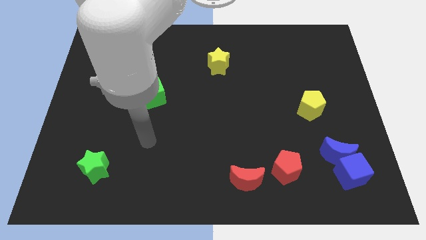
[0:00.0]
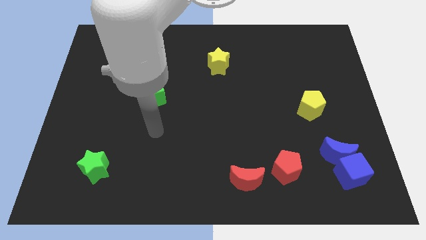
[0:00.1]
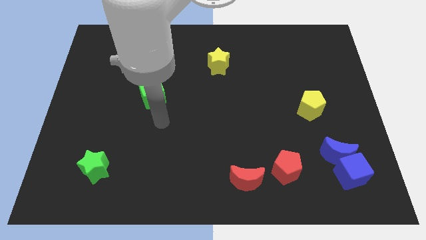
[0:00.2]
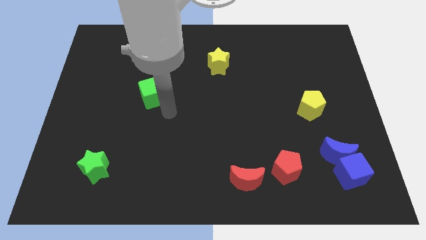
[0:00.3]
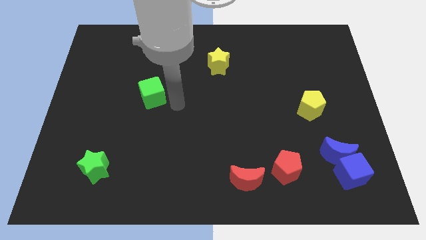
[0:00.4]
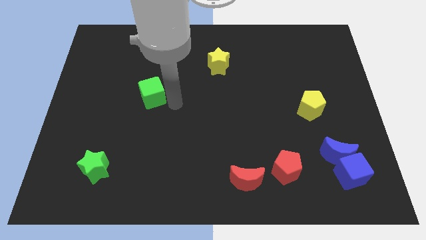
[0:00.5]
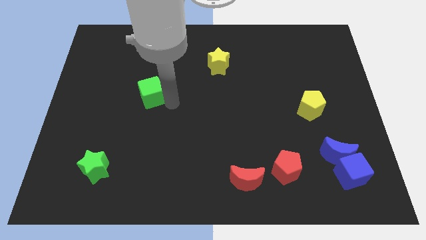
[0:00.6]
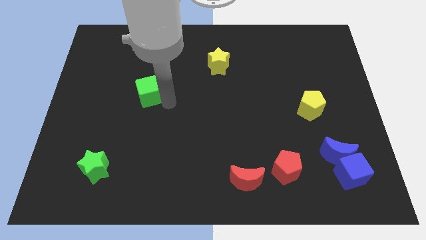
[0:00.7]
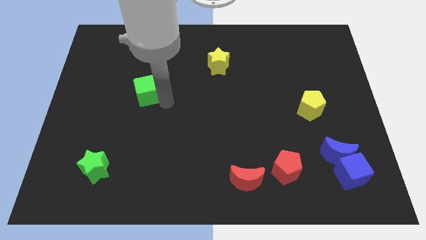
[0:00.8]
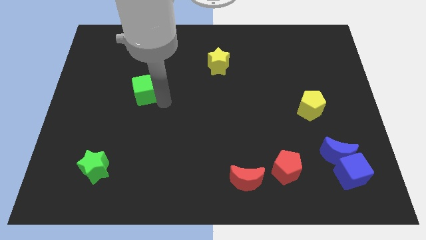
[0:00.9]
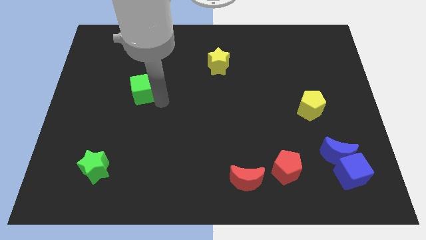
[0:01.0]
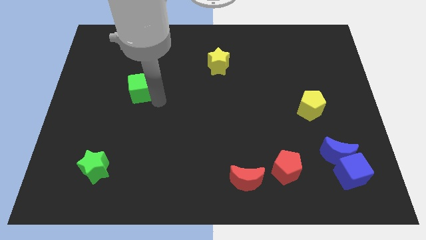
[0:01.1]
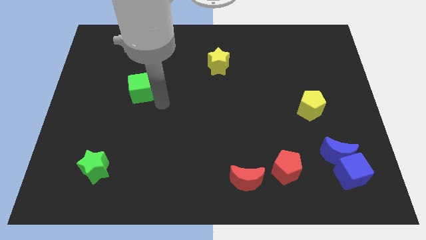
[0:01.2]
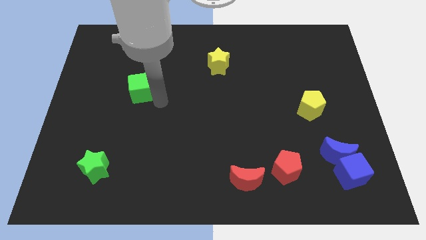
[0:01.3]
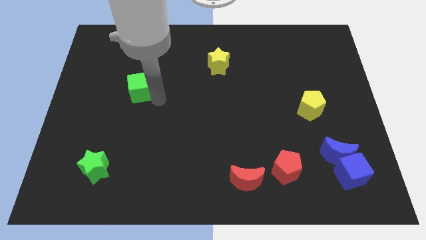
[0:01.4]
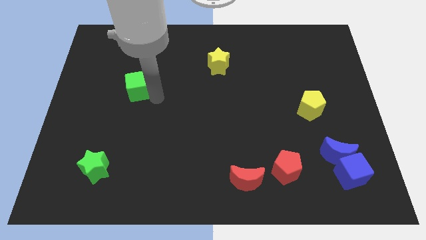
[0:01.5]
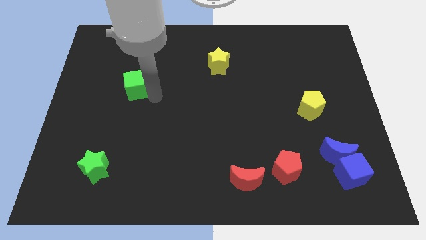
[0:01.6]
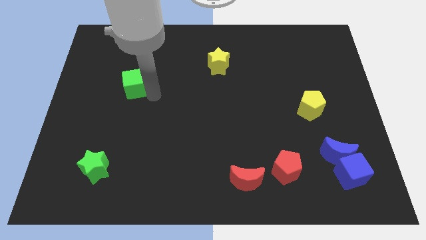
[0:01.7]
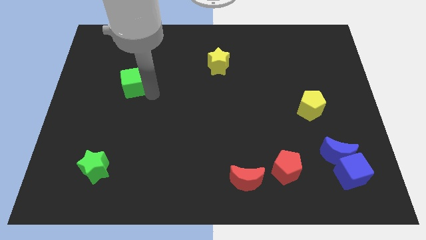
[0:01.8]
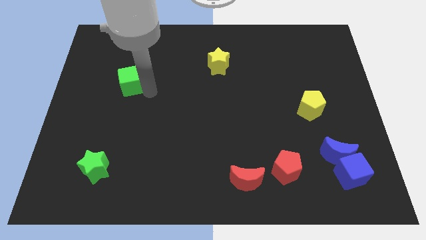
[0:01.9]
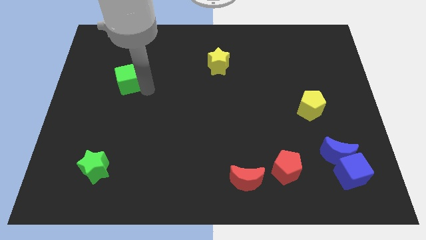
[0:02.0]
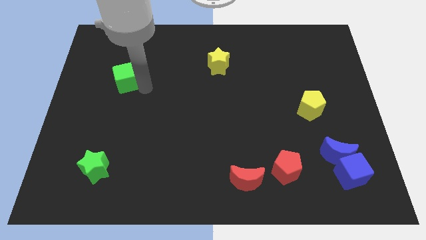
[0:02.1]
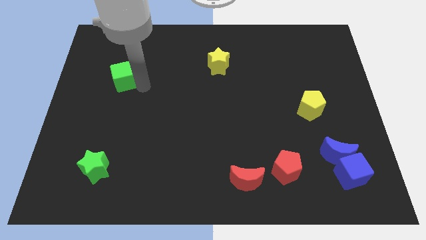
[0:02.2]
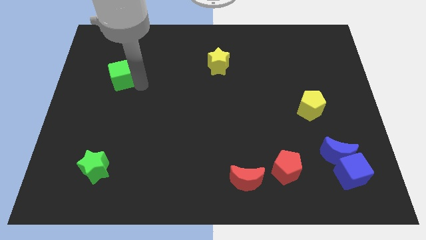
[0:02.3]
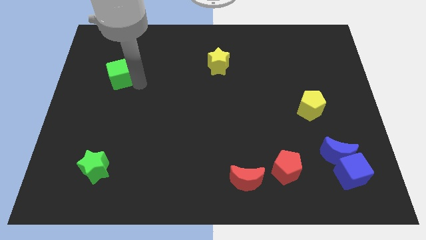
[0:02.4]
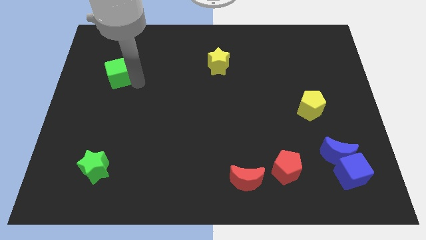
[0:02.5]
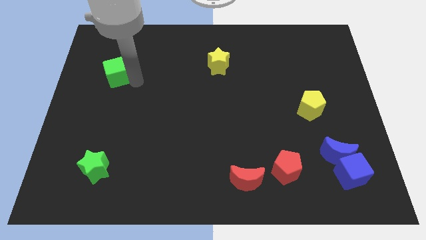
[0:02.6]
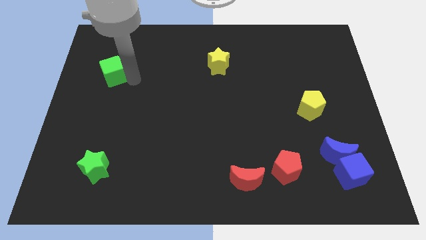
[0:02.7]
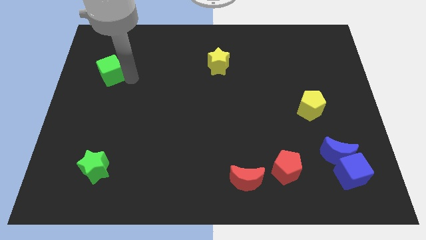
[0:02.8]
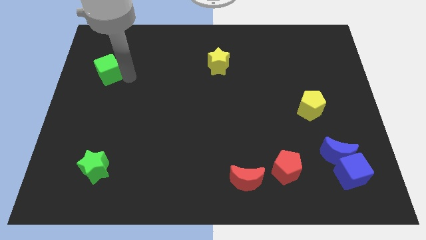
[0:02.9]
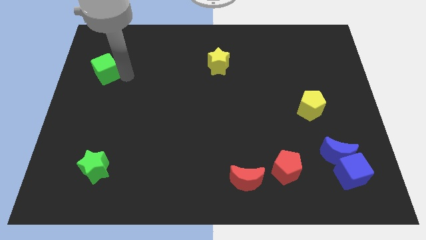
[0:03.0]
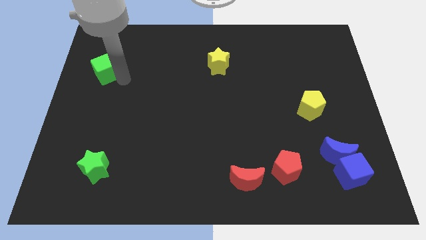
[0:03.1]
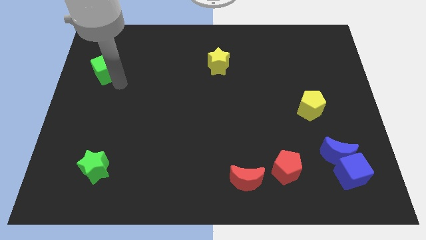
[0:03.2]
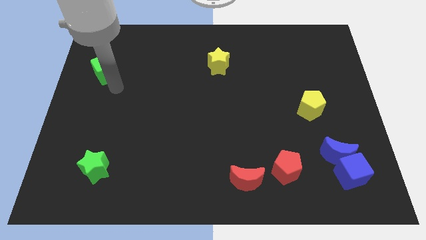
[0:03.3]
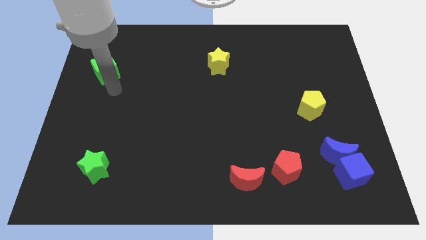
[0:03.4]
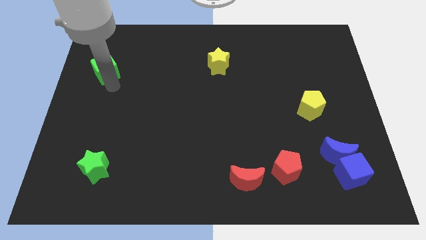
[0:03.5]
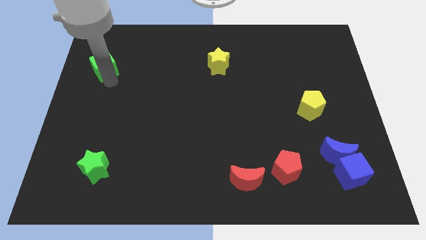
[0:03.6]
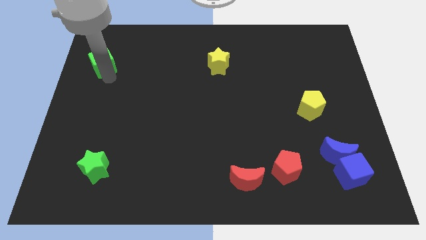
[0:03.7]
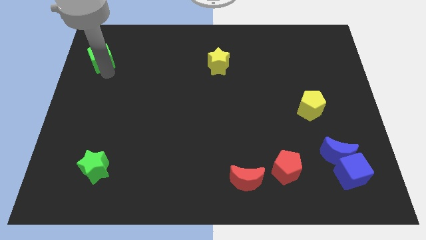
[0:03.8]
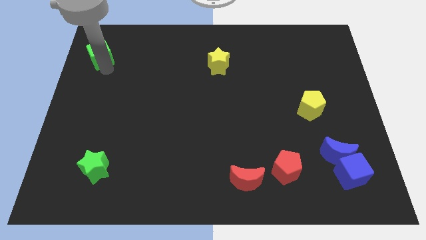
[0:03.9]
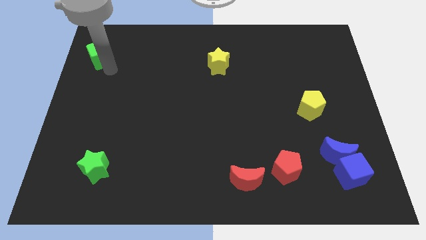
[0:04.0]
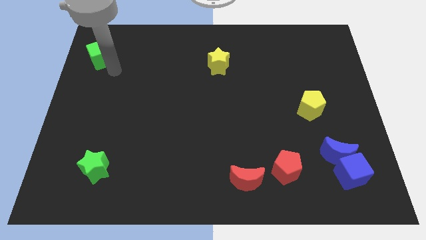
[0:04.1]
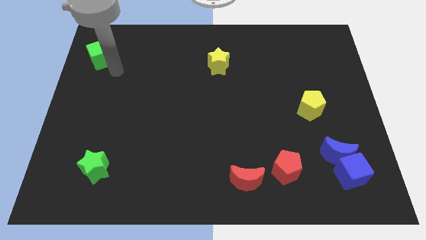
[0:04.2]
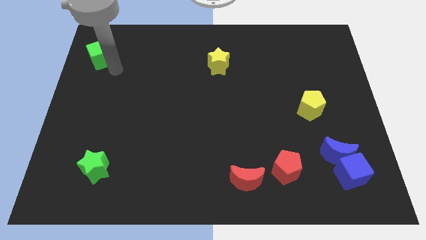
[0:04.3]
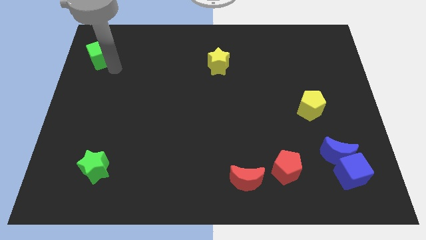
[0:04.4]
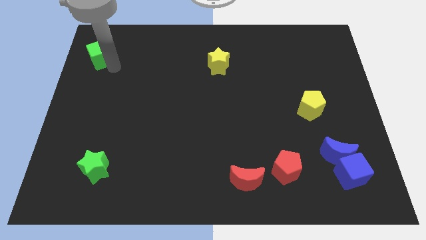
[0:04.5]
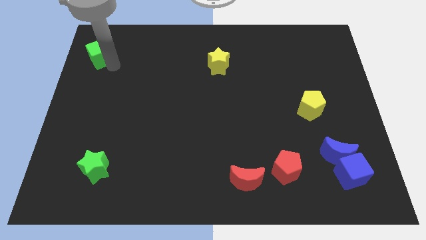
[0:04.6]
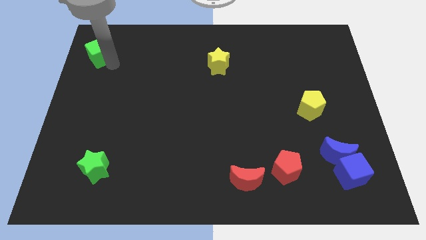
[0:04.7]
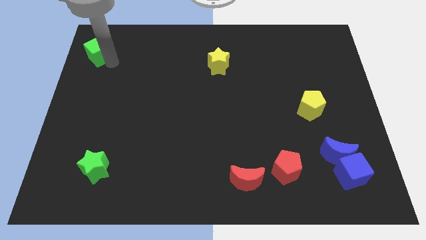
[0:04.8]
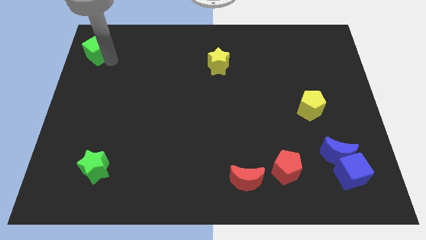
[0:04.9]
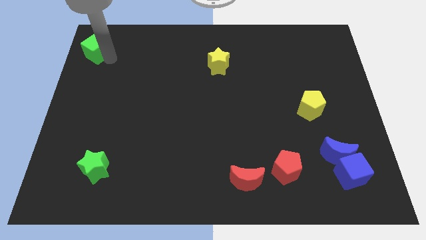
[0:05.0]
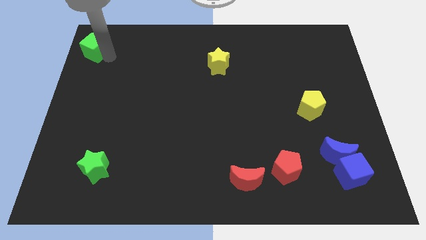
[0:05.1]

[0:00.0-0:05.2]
move the green cube to the upper left corner

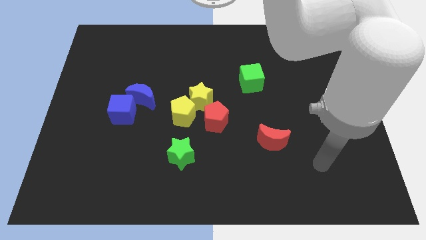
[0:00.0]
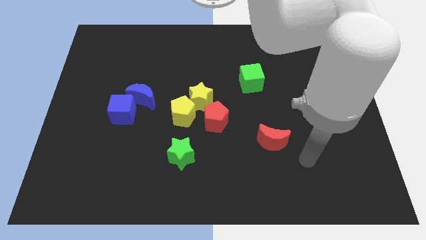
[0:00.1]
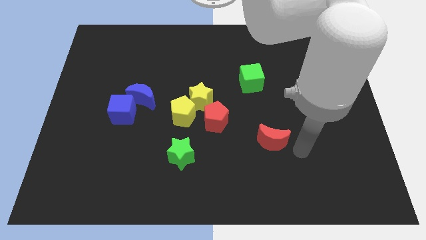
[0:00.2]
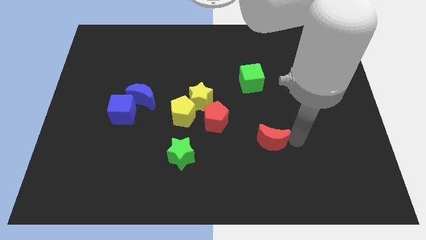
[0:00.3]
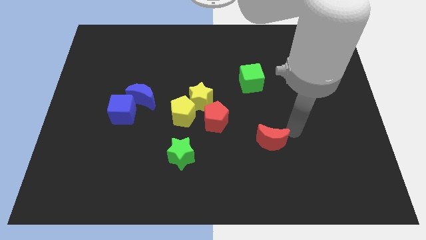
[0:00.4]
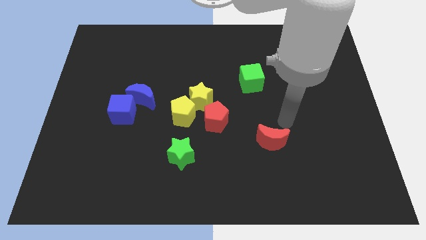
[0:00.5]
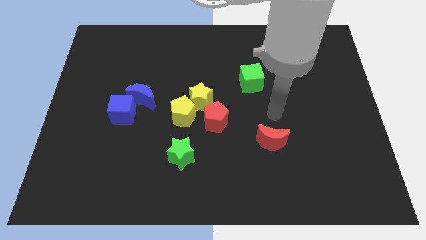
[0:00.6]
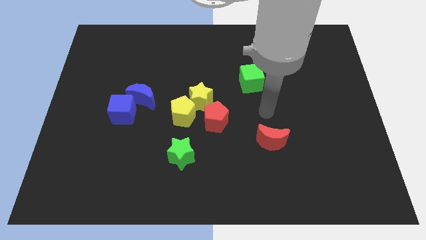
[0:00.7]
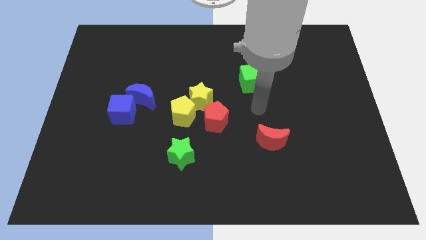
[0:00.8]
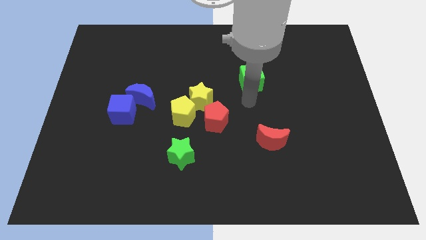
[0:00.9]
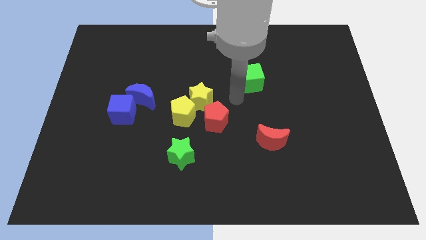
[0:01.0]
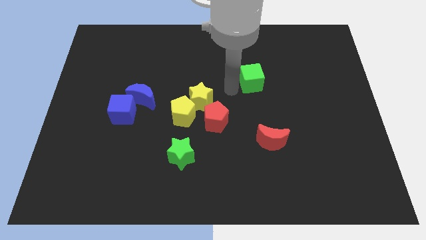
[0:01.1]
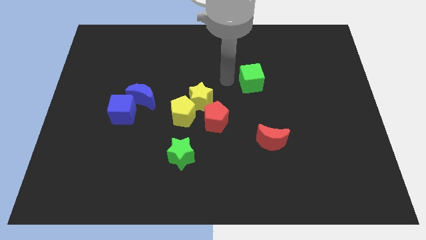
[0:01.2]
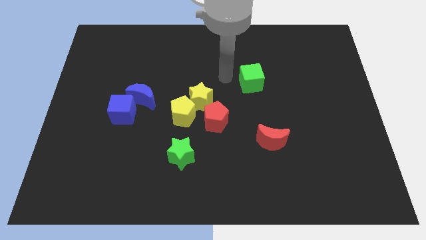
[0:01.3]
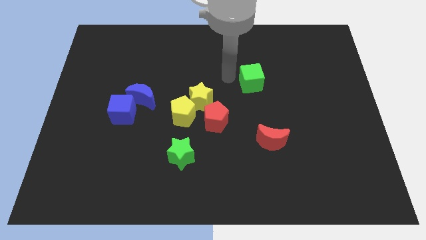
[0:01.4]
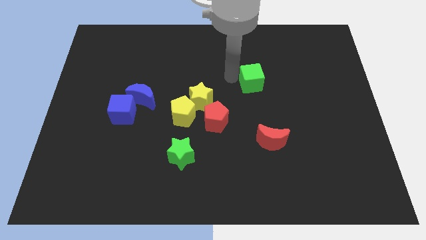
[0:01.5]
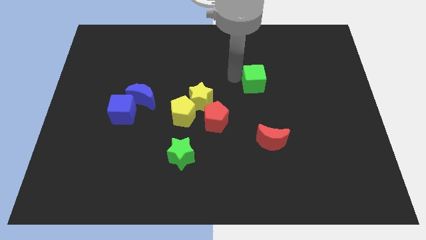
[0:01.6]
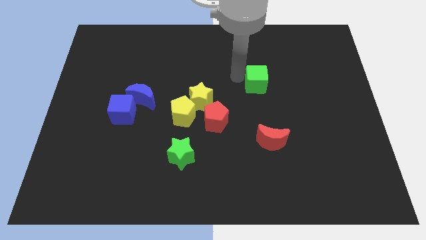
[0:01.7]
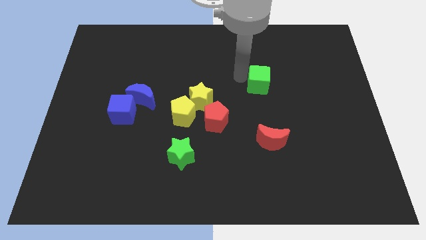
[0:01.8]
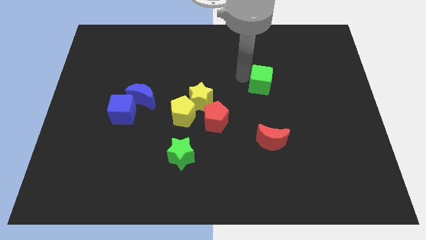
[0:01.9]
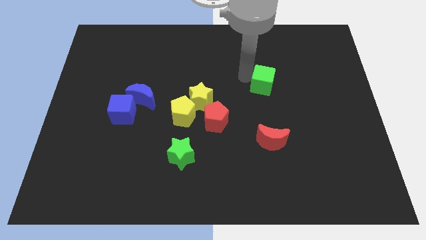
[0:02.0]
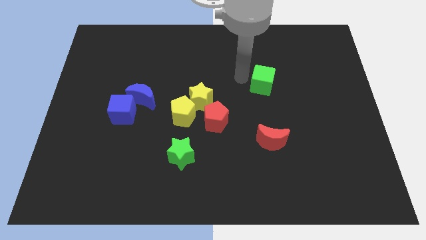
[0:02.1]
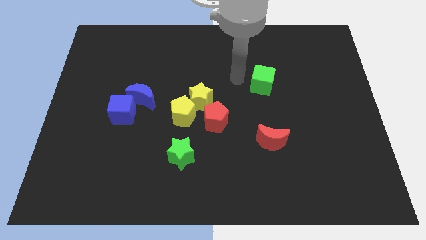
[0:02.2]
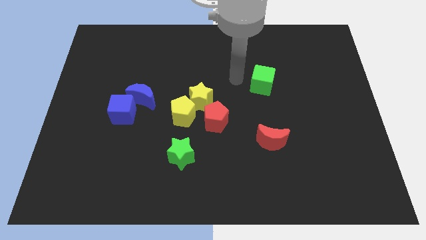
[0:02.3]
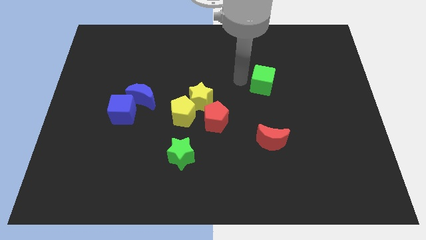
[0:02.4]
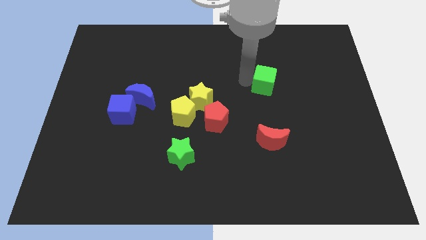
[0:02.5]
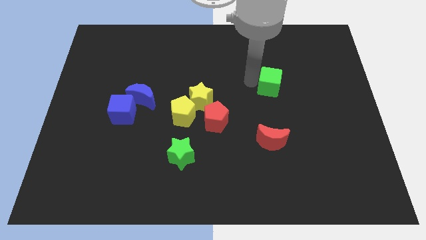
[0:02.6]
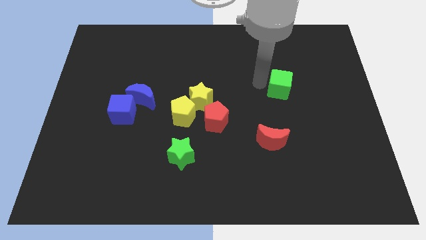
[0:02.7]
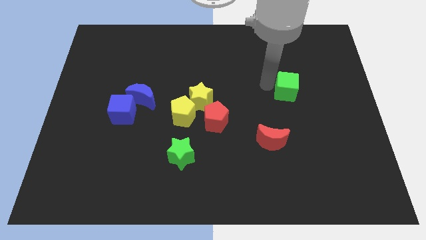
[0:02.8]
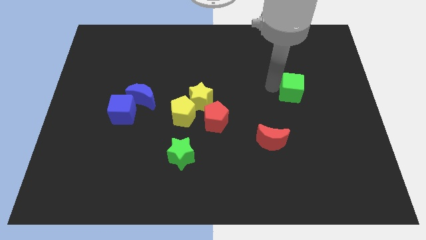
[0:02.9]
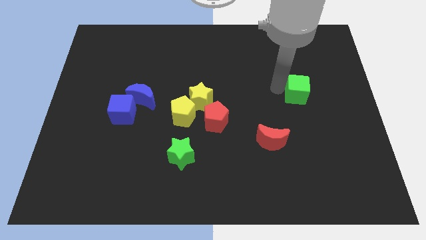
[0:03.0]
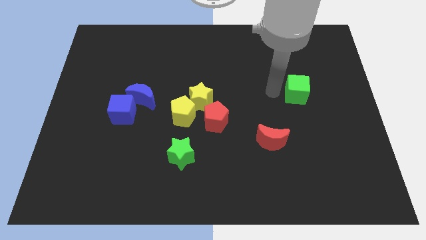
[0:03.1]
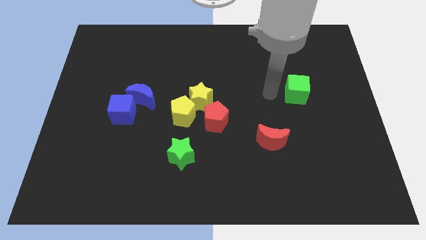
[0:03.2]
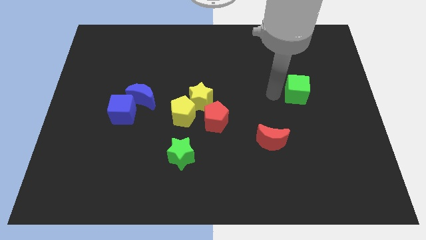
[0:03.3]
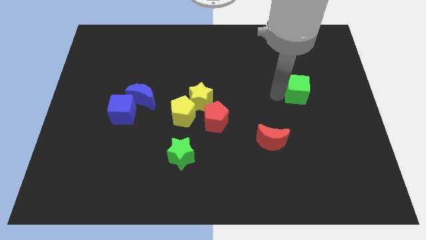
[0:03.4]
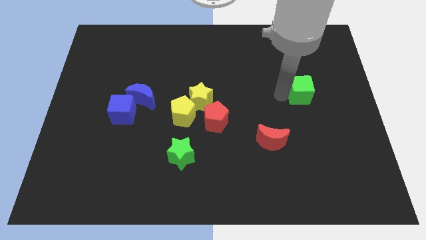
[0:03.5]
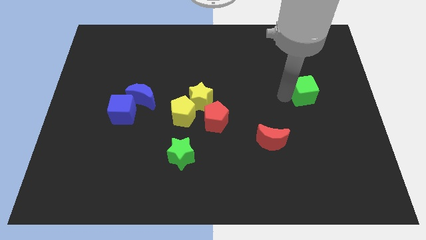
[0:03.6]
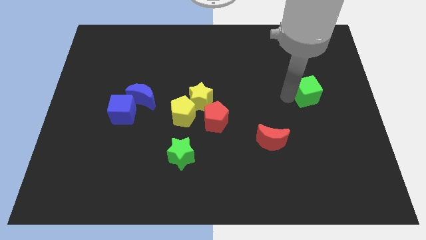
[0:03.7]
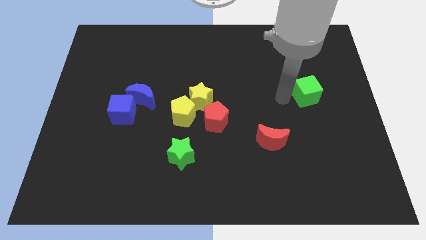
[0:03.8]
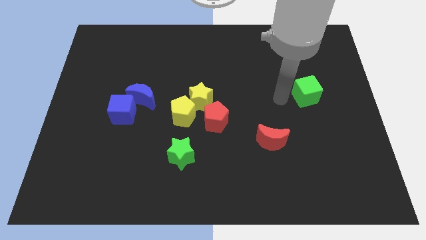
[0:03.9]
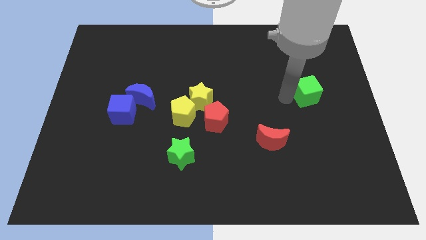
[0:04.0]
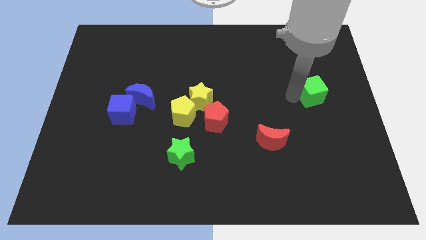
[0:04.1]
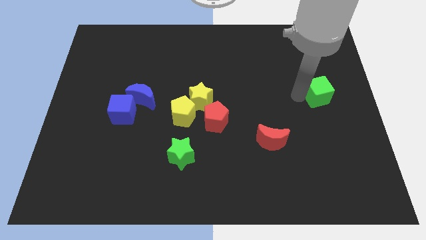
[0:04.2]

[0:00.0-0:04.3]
push the green cube to the right side
